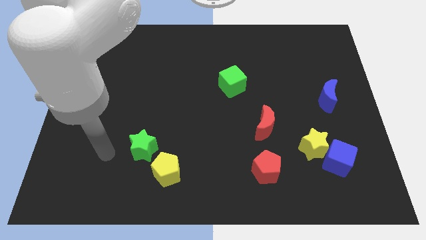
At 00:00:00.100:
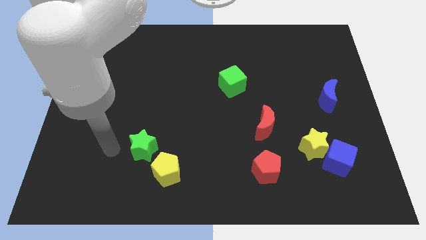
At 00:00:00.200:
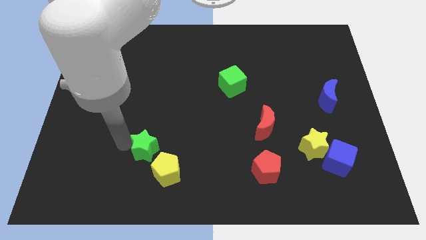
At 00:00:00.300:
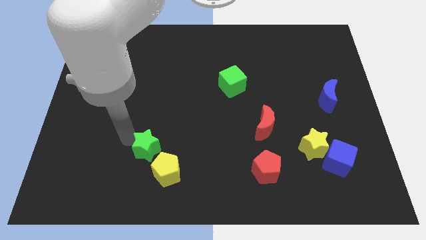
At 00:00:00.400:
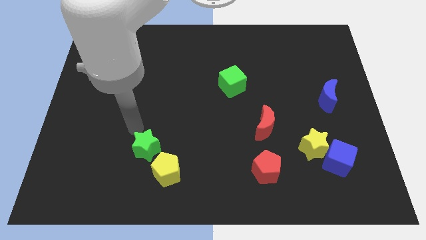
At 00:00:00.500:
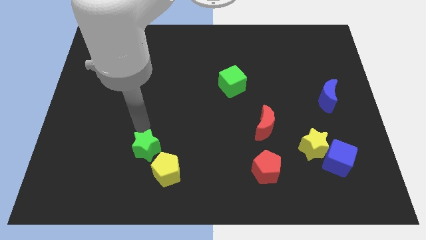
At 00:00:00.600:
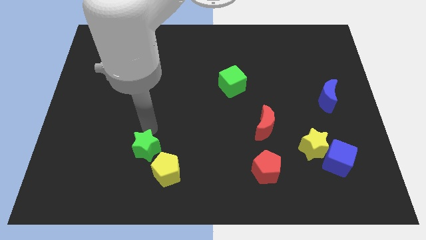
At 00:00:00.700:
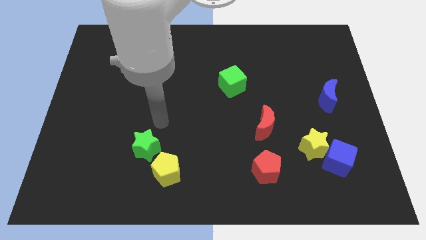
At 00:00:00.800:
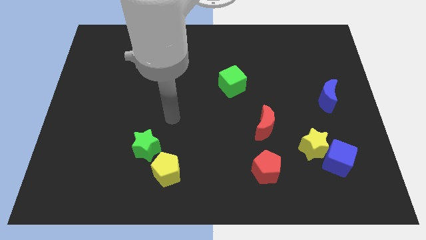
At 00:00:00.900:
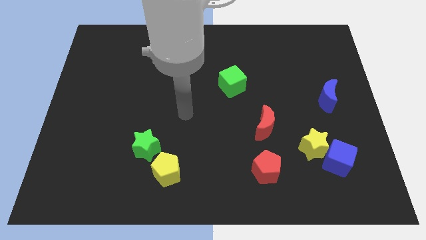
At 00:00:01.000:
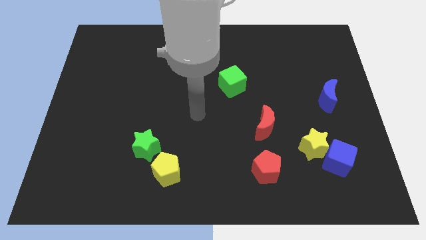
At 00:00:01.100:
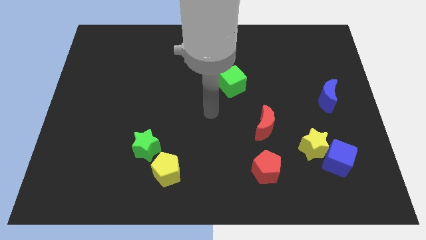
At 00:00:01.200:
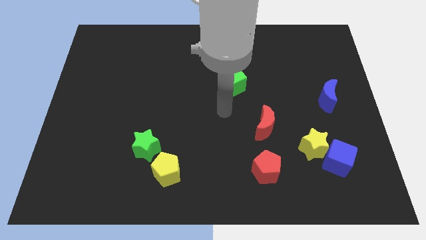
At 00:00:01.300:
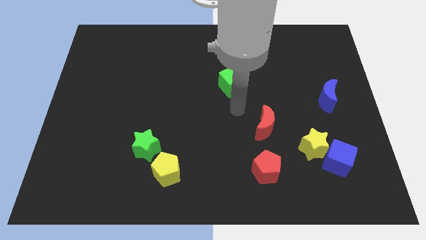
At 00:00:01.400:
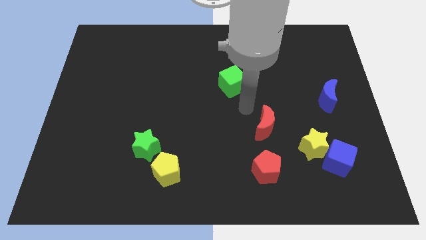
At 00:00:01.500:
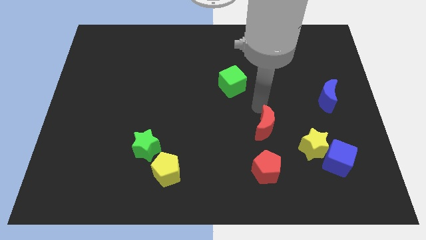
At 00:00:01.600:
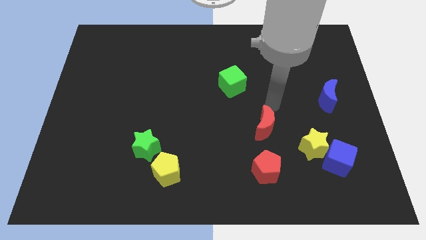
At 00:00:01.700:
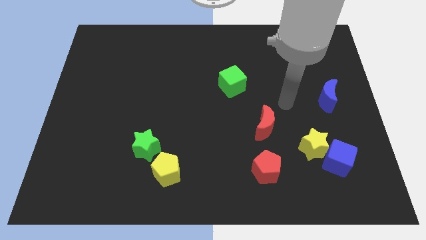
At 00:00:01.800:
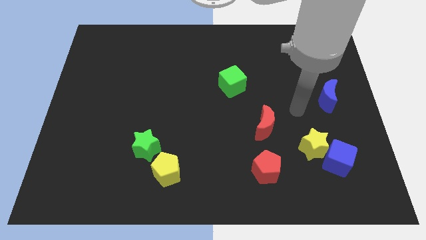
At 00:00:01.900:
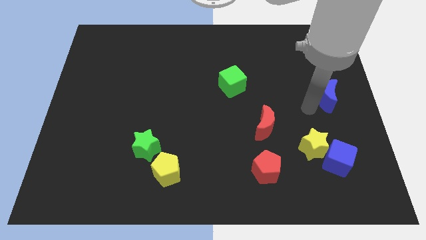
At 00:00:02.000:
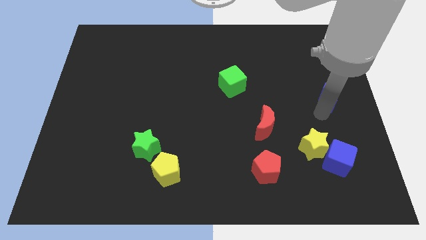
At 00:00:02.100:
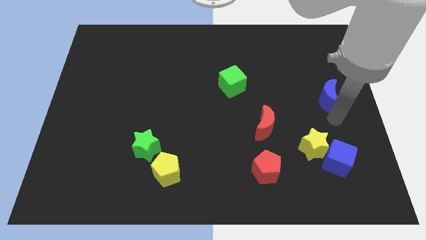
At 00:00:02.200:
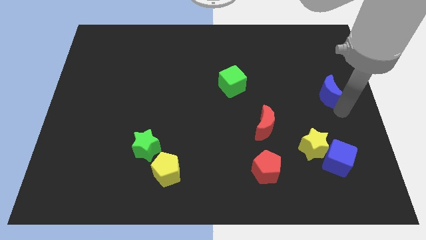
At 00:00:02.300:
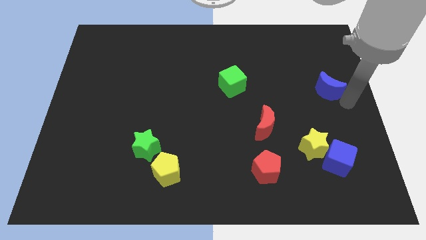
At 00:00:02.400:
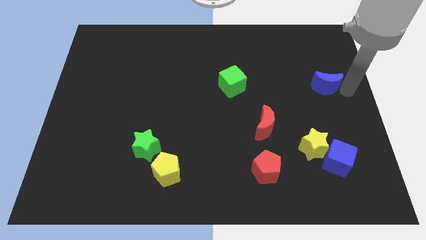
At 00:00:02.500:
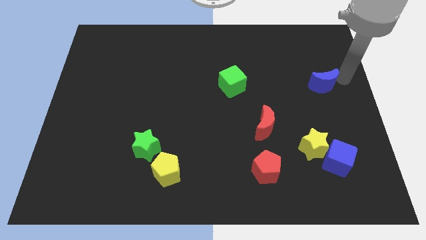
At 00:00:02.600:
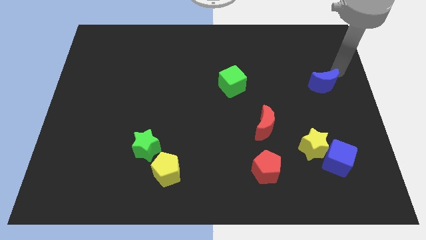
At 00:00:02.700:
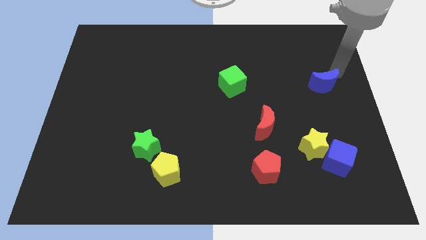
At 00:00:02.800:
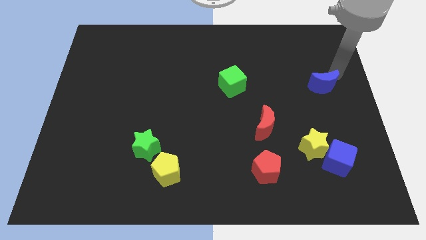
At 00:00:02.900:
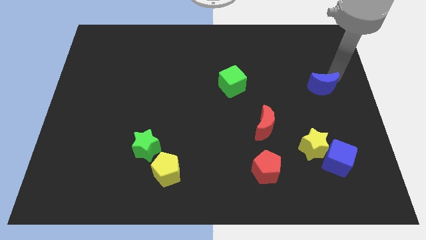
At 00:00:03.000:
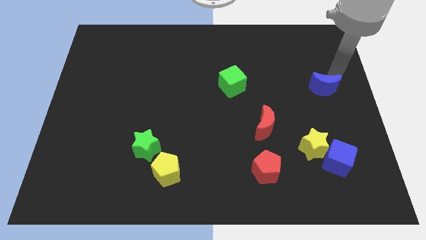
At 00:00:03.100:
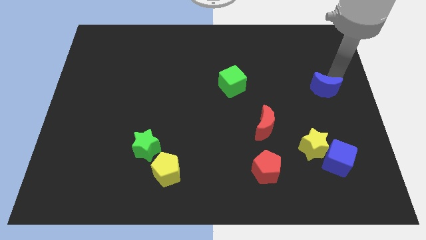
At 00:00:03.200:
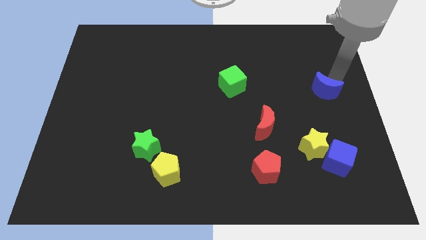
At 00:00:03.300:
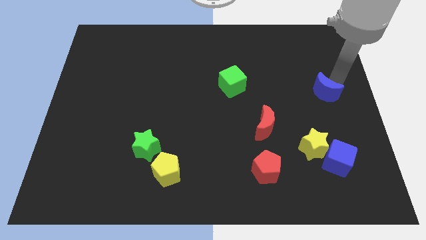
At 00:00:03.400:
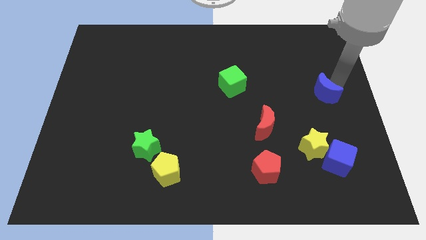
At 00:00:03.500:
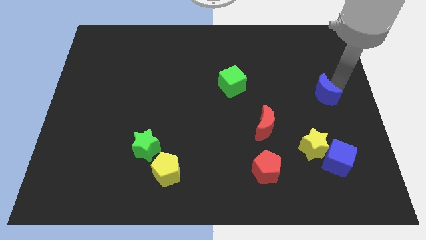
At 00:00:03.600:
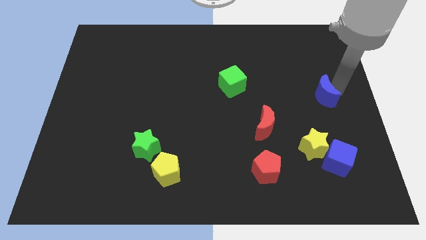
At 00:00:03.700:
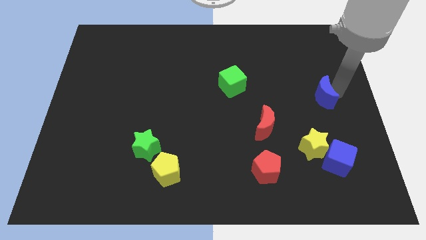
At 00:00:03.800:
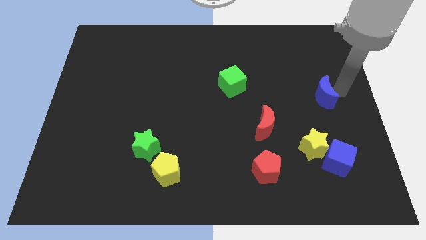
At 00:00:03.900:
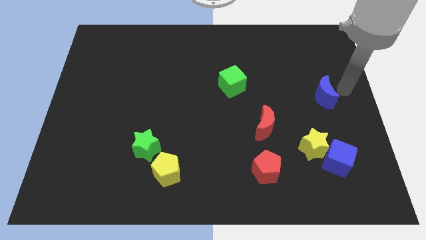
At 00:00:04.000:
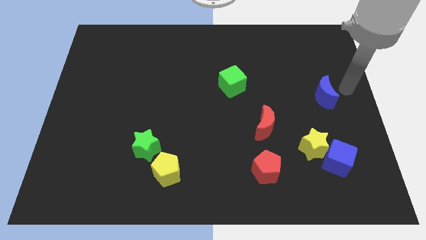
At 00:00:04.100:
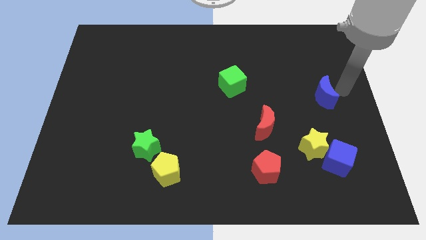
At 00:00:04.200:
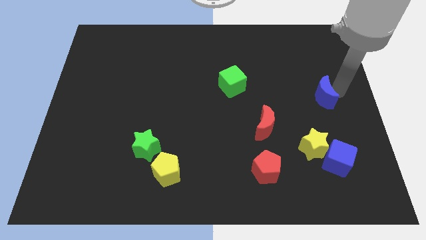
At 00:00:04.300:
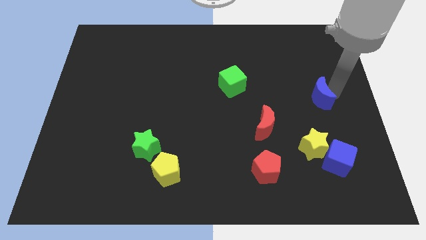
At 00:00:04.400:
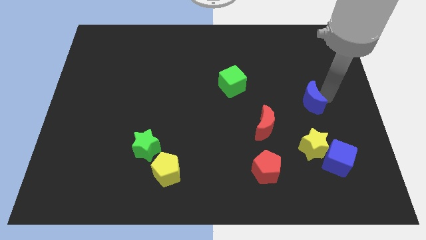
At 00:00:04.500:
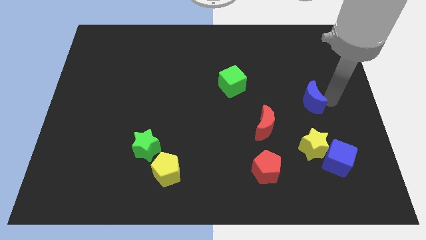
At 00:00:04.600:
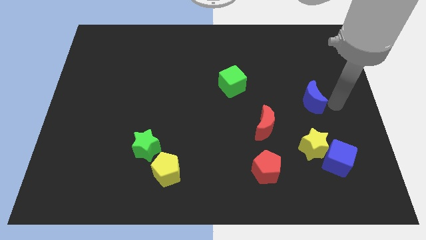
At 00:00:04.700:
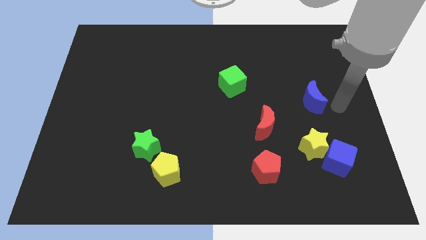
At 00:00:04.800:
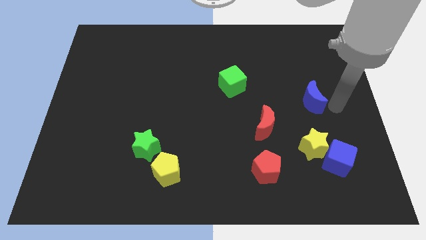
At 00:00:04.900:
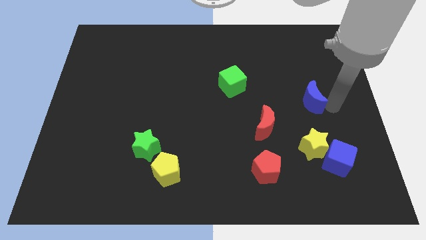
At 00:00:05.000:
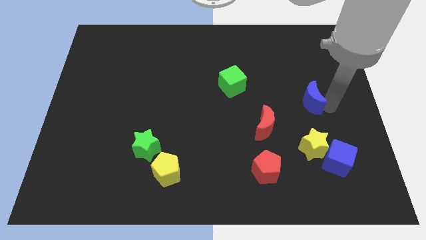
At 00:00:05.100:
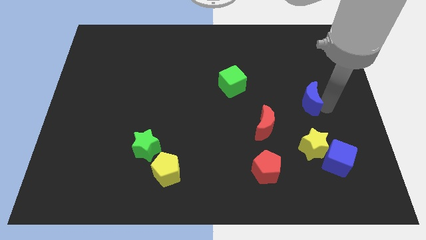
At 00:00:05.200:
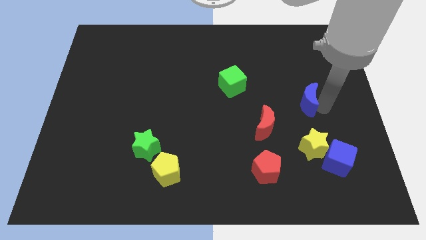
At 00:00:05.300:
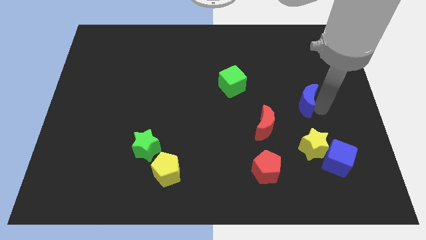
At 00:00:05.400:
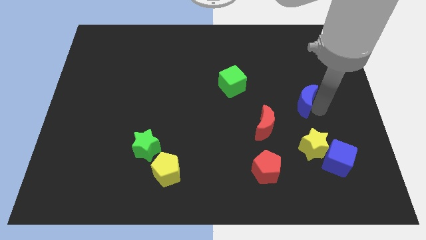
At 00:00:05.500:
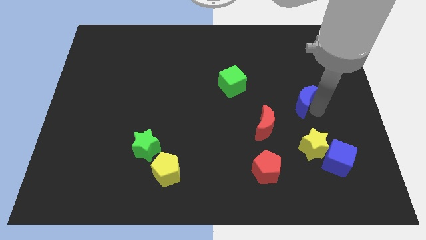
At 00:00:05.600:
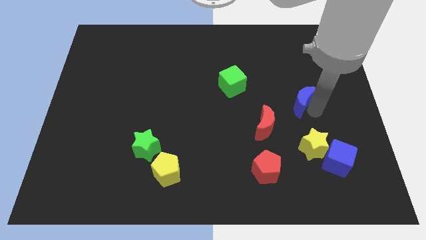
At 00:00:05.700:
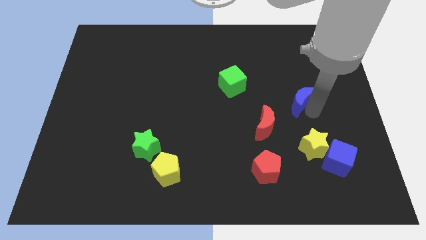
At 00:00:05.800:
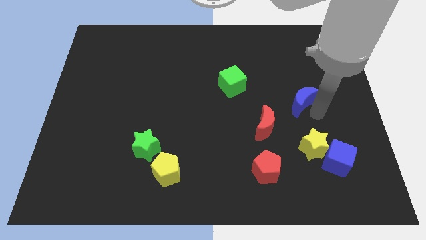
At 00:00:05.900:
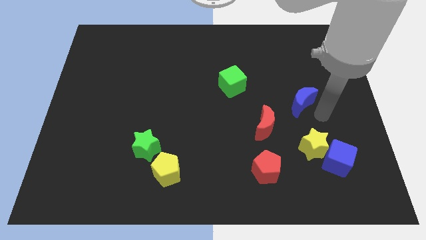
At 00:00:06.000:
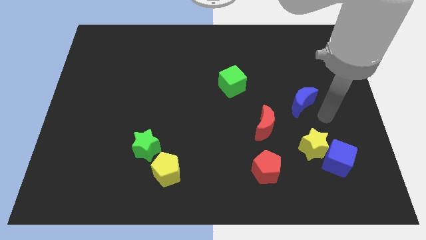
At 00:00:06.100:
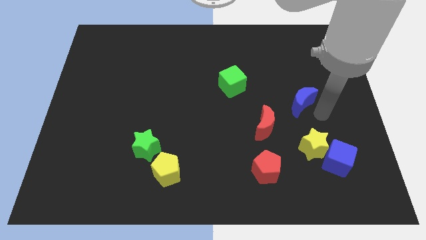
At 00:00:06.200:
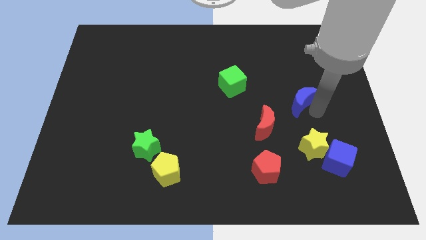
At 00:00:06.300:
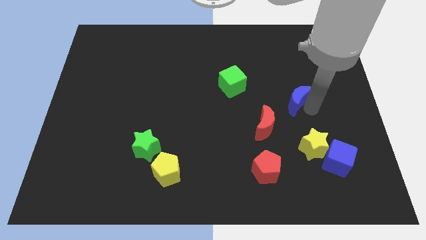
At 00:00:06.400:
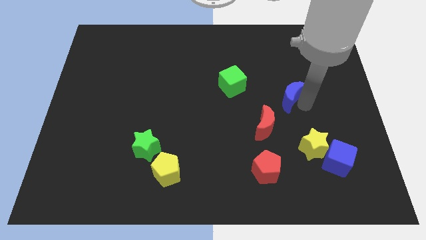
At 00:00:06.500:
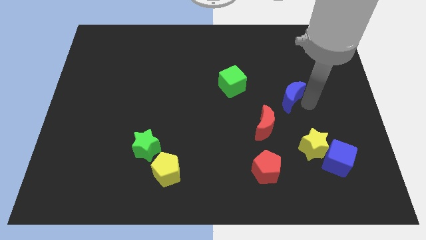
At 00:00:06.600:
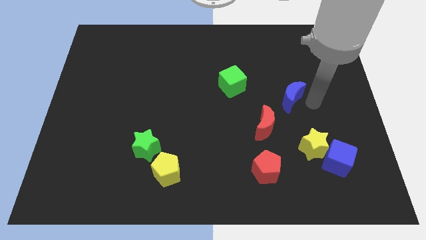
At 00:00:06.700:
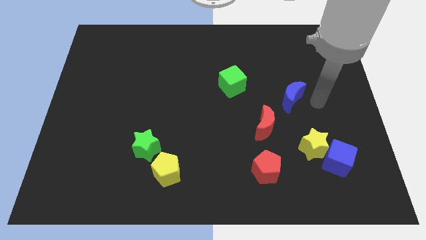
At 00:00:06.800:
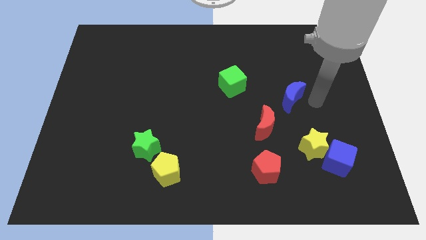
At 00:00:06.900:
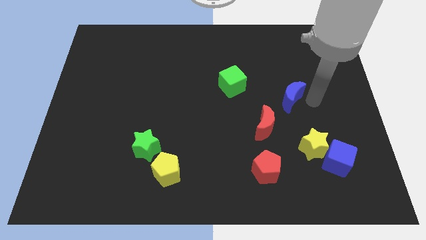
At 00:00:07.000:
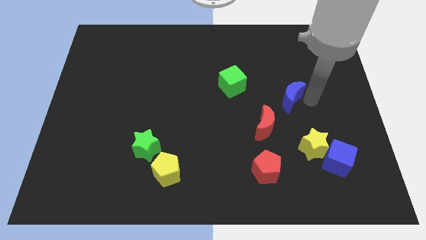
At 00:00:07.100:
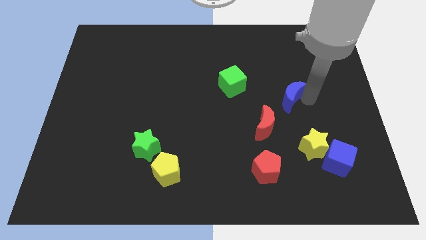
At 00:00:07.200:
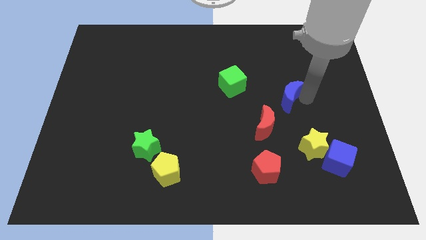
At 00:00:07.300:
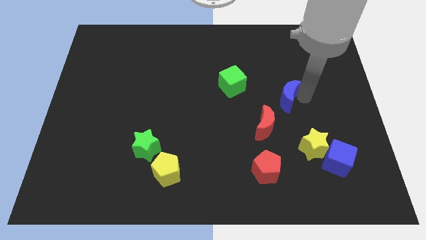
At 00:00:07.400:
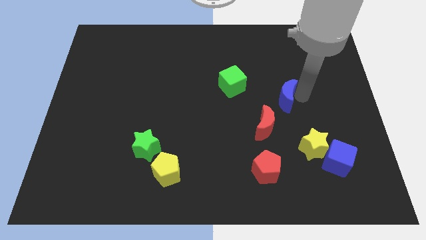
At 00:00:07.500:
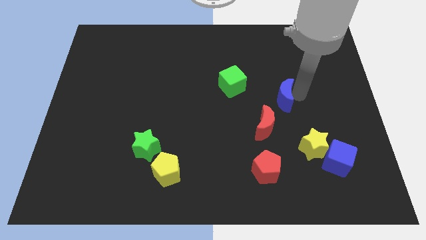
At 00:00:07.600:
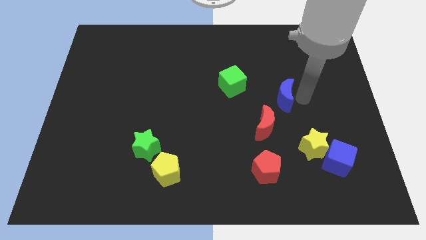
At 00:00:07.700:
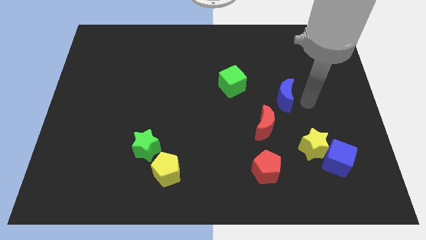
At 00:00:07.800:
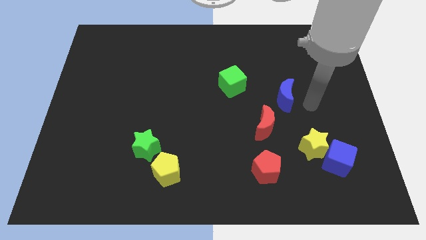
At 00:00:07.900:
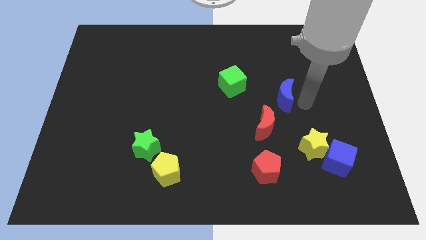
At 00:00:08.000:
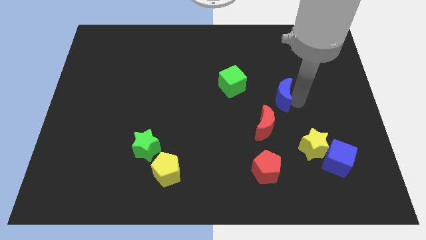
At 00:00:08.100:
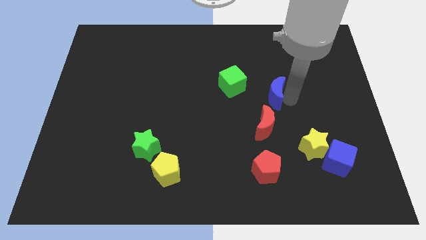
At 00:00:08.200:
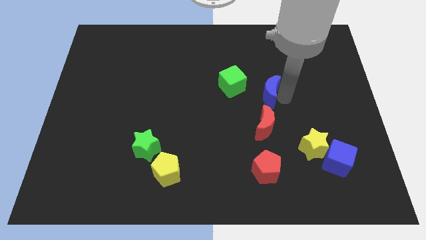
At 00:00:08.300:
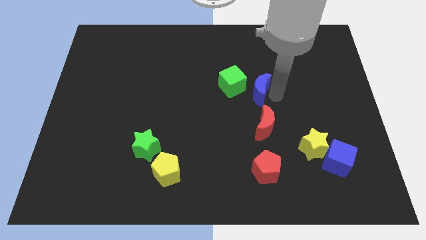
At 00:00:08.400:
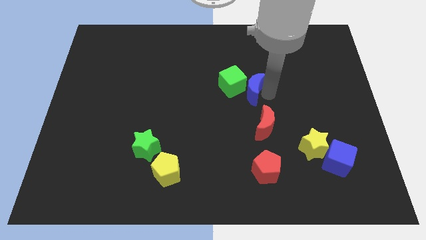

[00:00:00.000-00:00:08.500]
move the blue moon to the green cube
